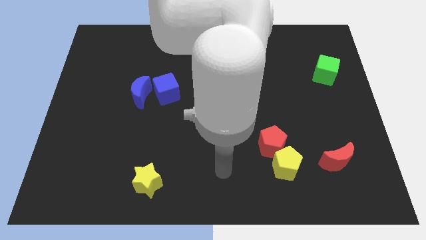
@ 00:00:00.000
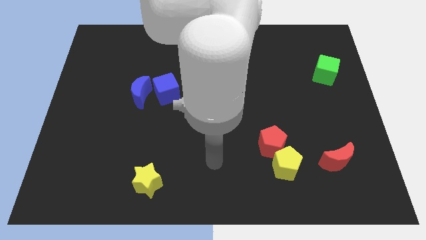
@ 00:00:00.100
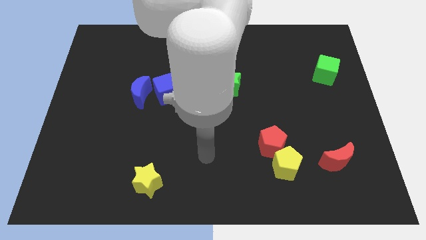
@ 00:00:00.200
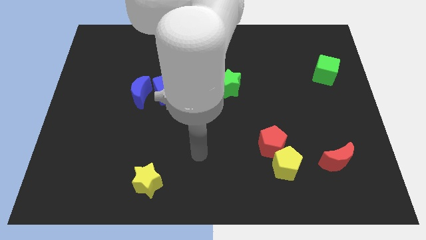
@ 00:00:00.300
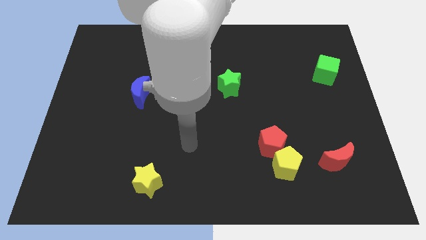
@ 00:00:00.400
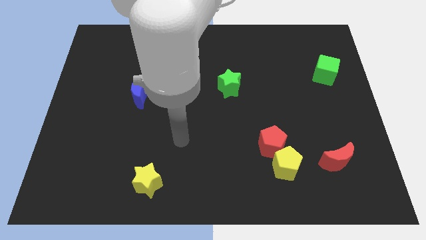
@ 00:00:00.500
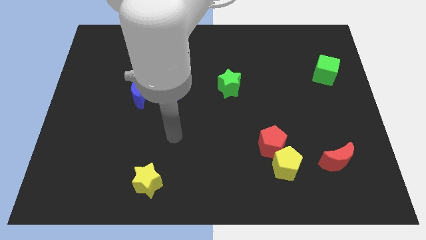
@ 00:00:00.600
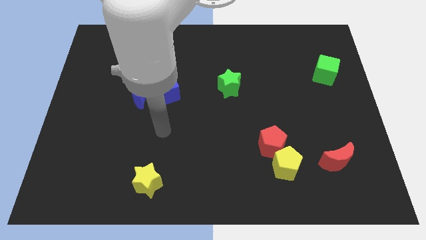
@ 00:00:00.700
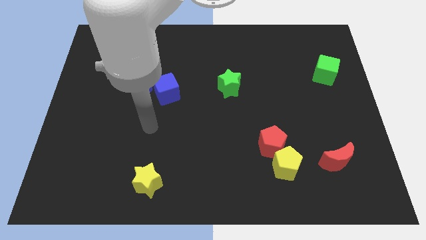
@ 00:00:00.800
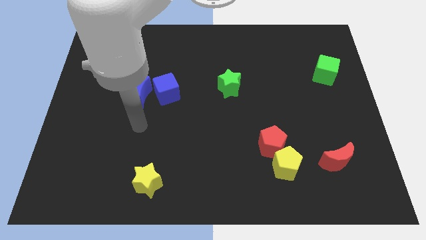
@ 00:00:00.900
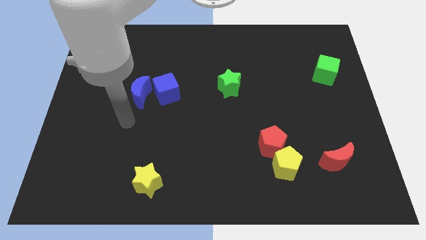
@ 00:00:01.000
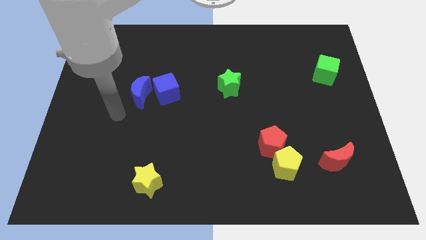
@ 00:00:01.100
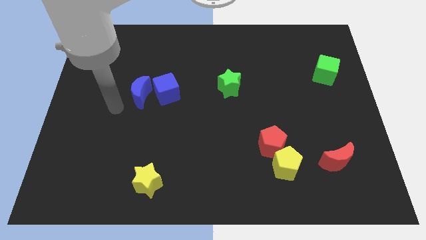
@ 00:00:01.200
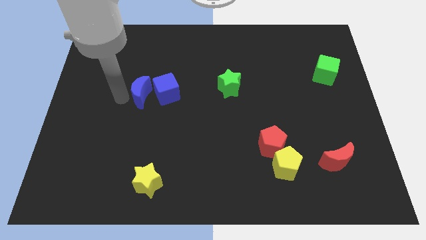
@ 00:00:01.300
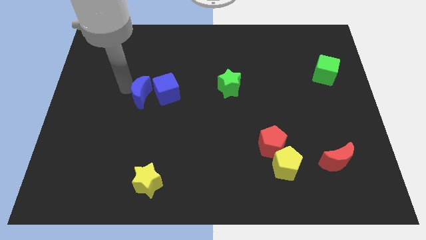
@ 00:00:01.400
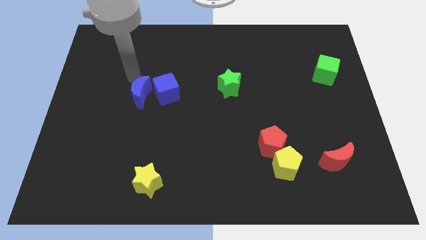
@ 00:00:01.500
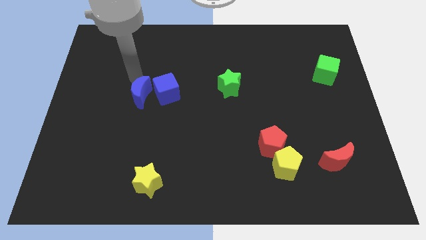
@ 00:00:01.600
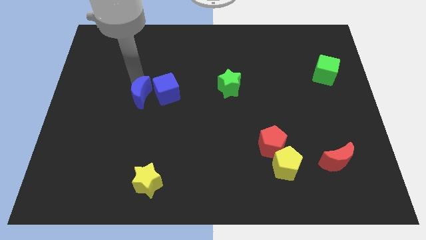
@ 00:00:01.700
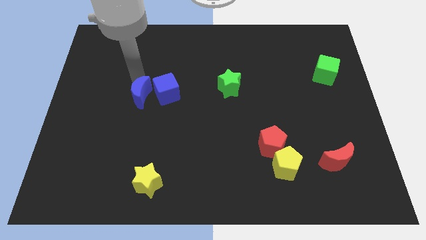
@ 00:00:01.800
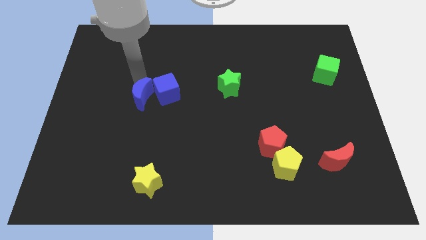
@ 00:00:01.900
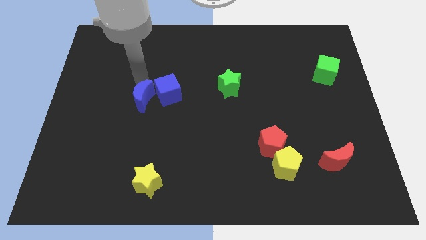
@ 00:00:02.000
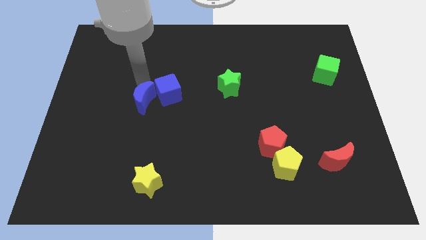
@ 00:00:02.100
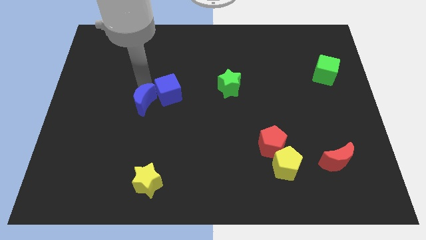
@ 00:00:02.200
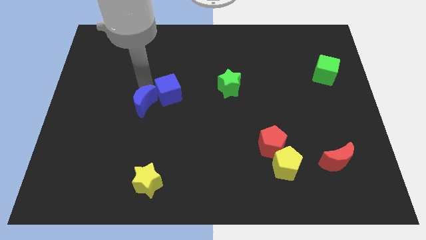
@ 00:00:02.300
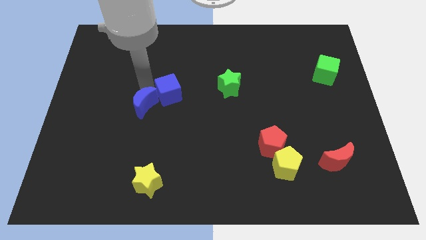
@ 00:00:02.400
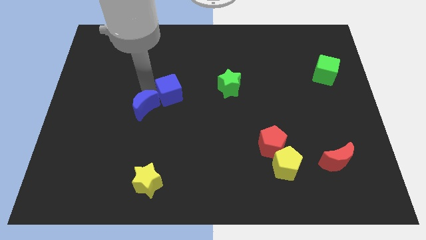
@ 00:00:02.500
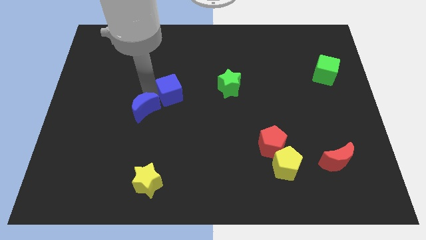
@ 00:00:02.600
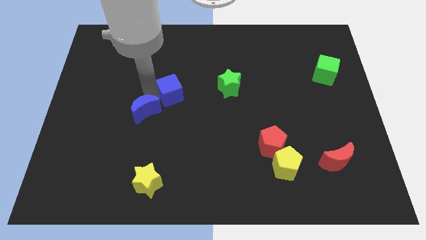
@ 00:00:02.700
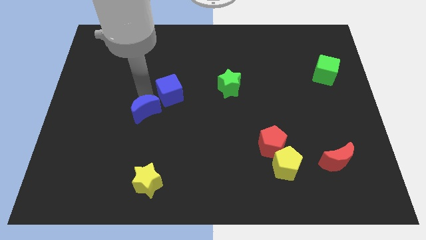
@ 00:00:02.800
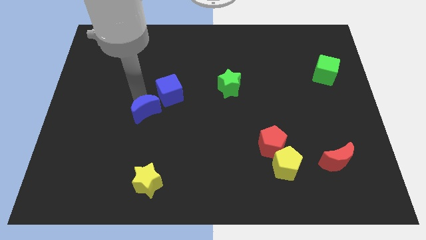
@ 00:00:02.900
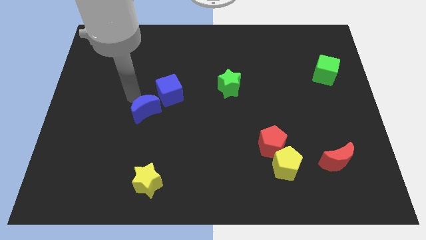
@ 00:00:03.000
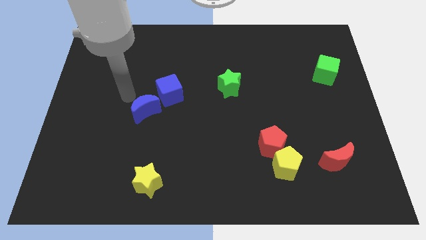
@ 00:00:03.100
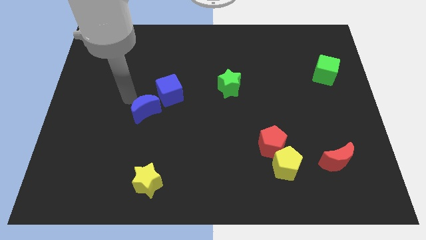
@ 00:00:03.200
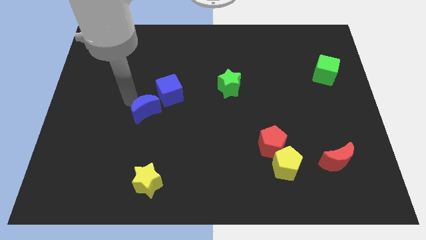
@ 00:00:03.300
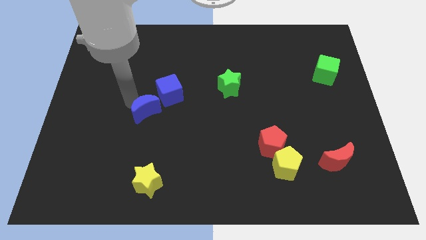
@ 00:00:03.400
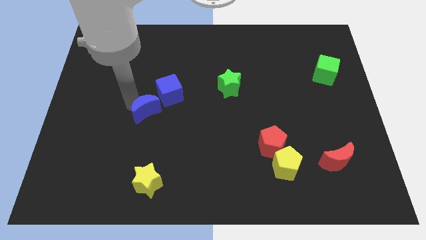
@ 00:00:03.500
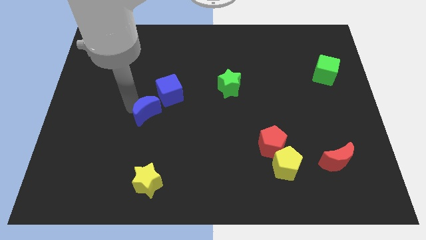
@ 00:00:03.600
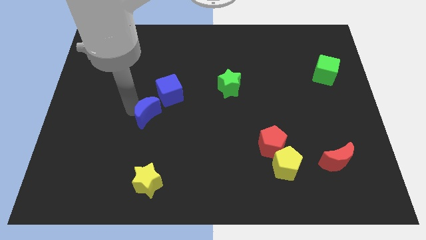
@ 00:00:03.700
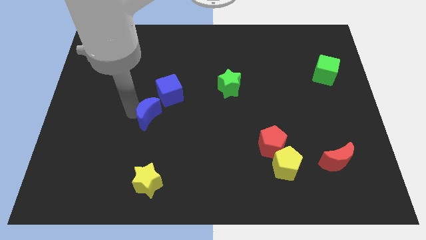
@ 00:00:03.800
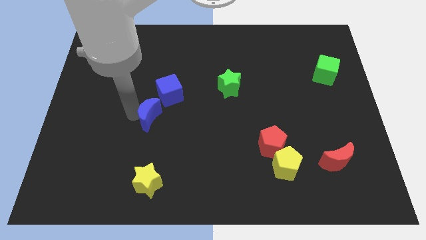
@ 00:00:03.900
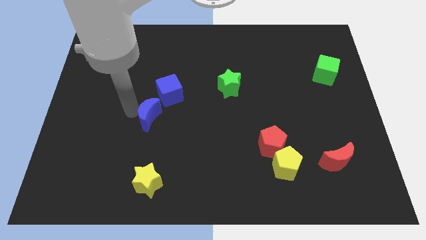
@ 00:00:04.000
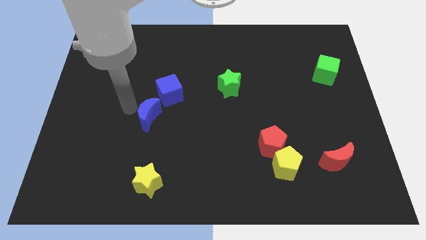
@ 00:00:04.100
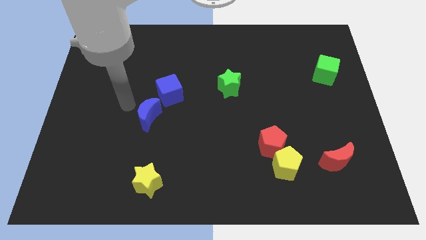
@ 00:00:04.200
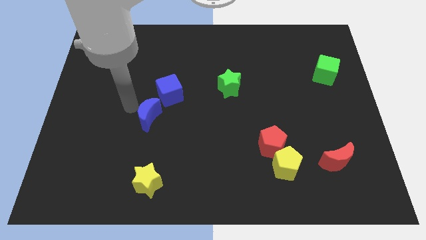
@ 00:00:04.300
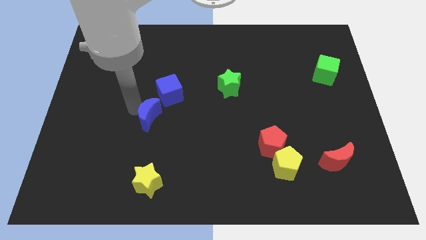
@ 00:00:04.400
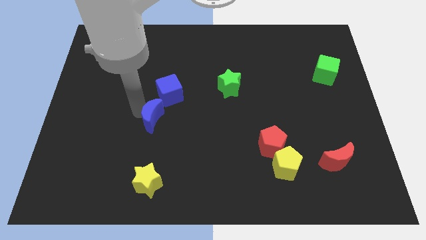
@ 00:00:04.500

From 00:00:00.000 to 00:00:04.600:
slide the blue moon a little down and right

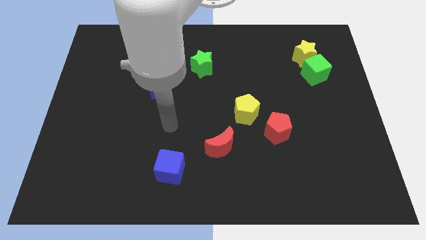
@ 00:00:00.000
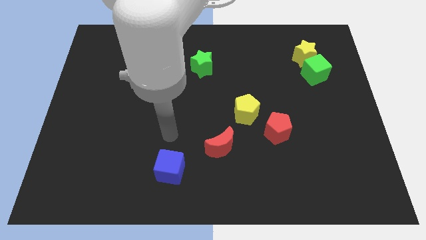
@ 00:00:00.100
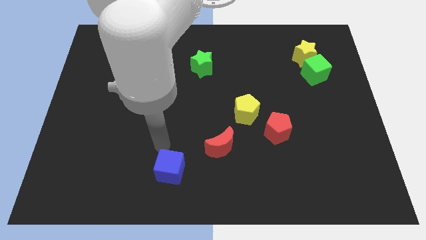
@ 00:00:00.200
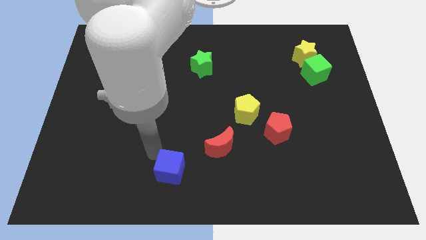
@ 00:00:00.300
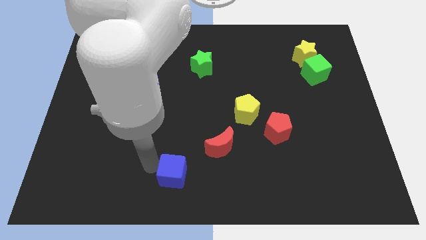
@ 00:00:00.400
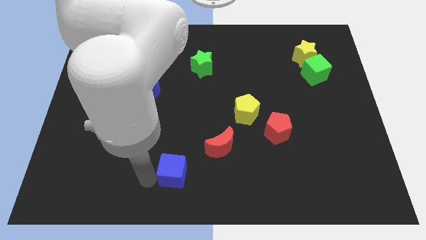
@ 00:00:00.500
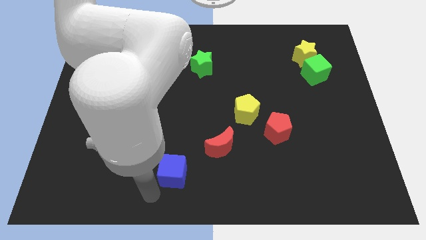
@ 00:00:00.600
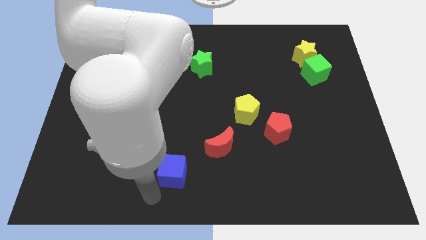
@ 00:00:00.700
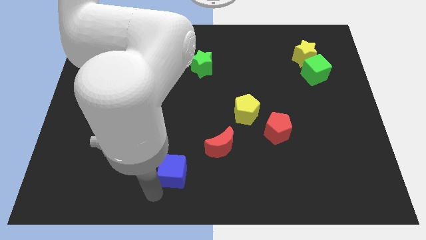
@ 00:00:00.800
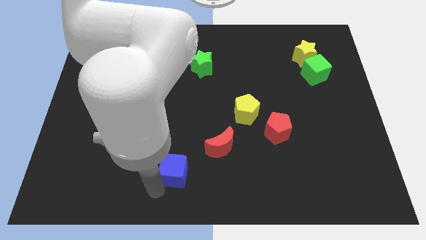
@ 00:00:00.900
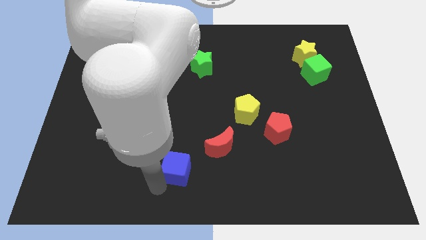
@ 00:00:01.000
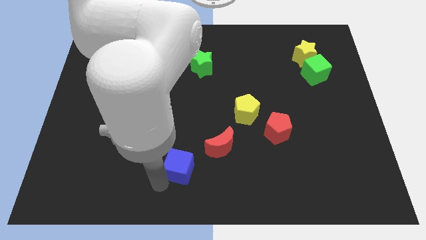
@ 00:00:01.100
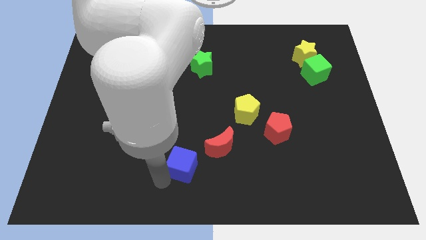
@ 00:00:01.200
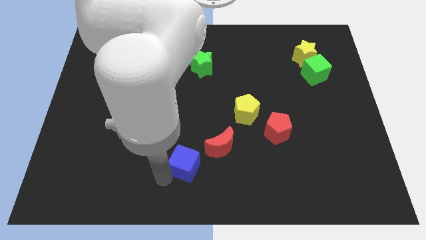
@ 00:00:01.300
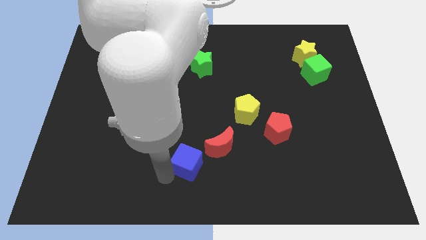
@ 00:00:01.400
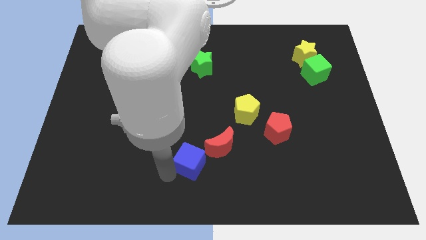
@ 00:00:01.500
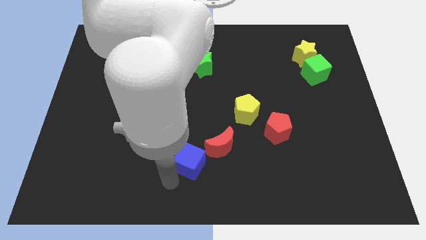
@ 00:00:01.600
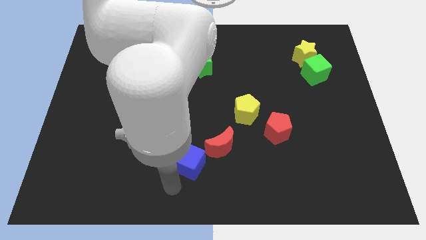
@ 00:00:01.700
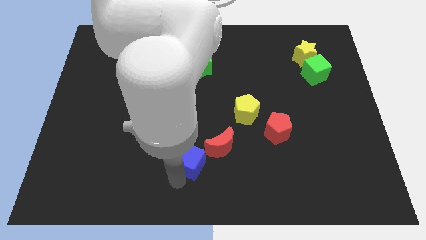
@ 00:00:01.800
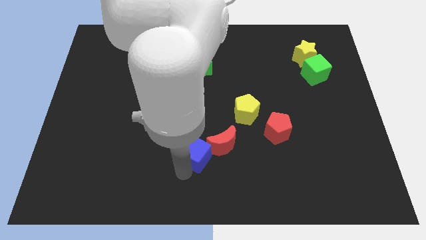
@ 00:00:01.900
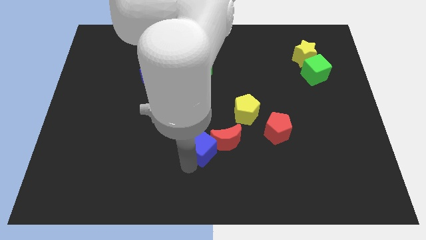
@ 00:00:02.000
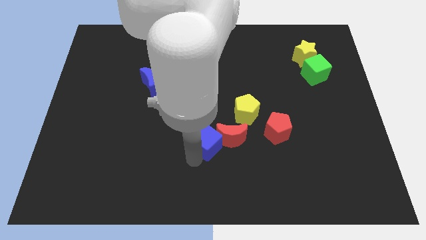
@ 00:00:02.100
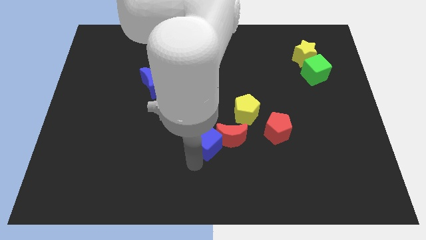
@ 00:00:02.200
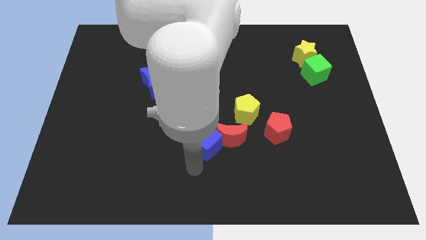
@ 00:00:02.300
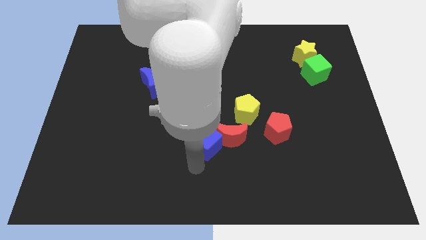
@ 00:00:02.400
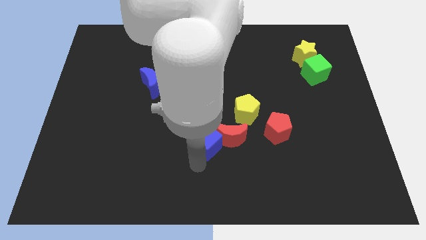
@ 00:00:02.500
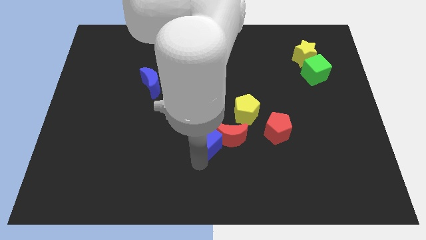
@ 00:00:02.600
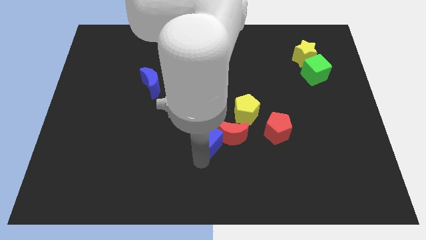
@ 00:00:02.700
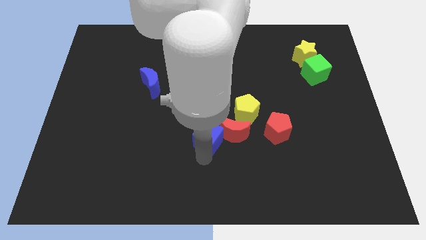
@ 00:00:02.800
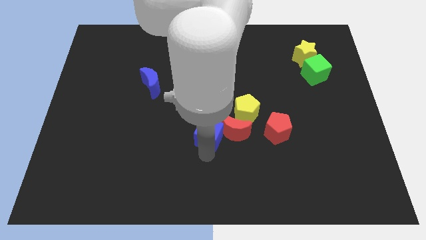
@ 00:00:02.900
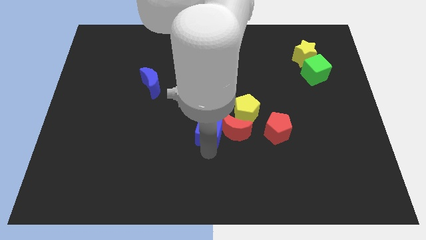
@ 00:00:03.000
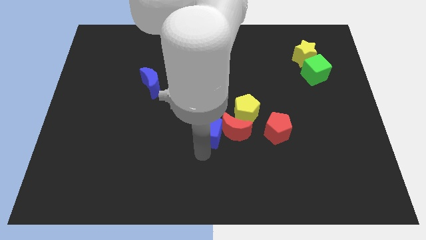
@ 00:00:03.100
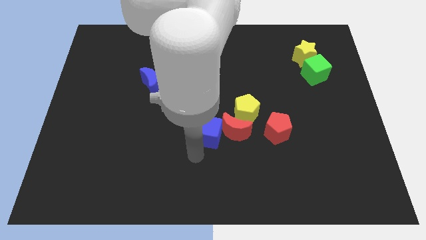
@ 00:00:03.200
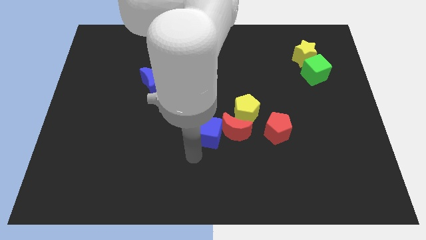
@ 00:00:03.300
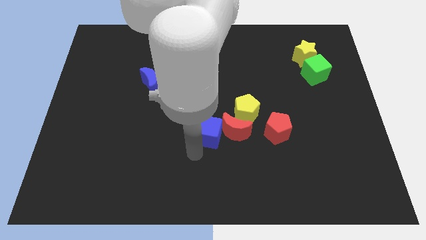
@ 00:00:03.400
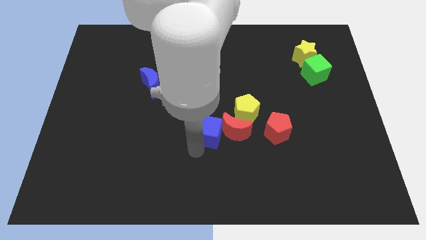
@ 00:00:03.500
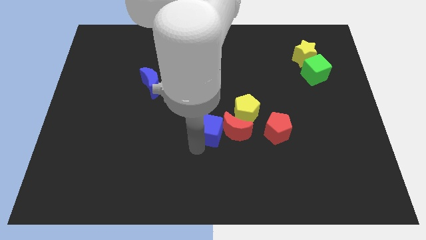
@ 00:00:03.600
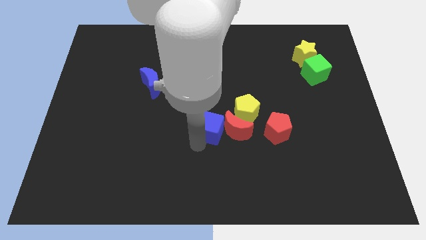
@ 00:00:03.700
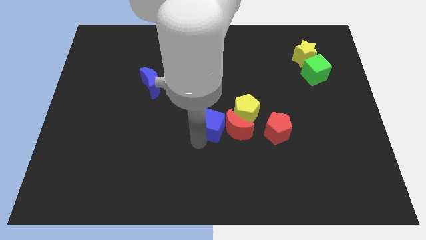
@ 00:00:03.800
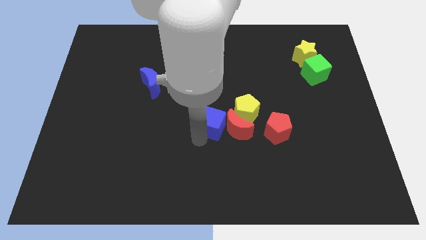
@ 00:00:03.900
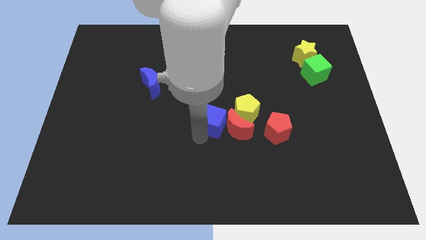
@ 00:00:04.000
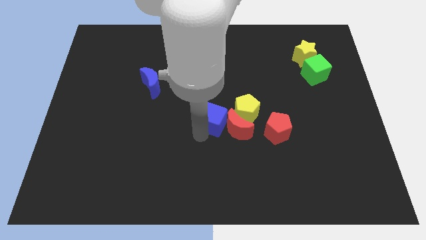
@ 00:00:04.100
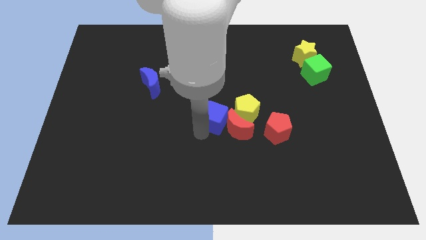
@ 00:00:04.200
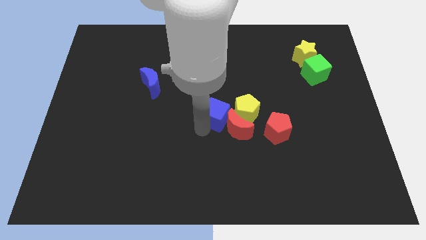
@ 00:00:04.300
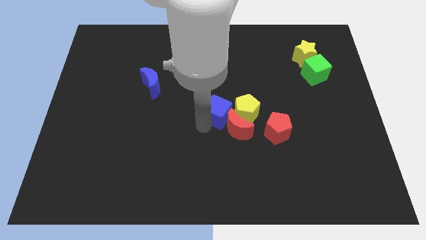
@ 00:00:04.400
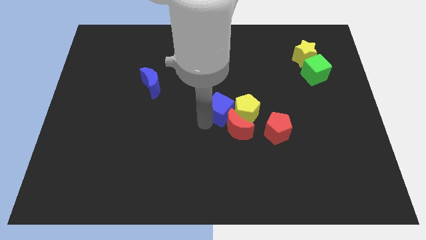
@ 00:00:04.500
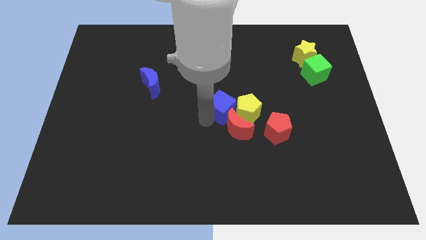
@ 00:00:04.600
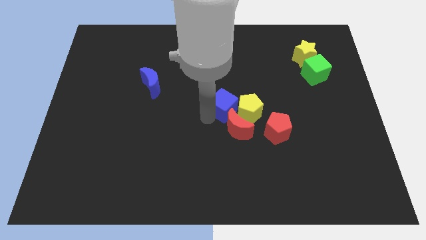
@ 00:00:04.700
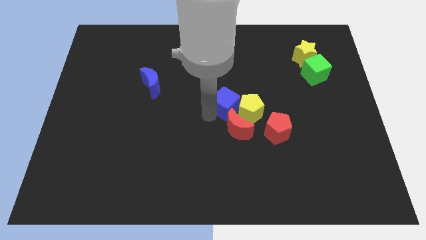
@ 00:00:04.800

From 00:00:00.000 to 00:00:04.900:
push the blue cube upwards and to the right
